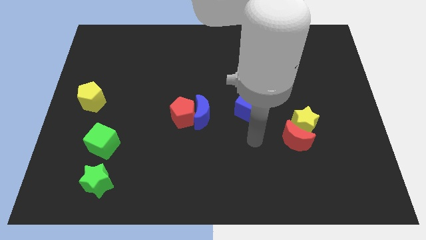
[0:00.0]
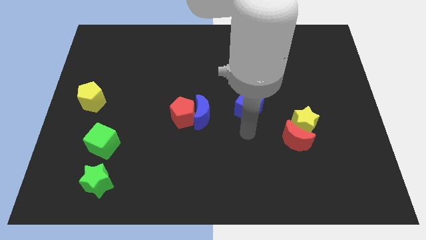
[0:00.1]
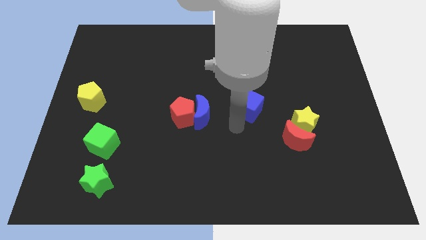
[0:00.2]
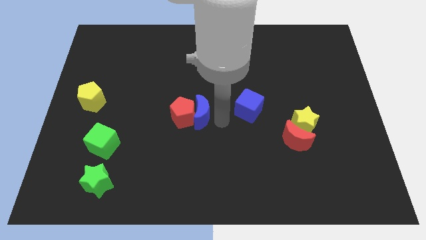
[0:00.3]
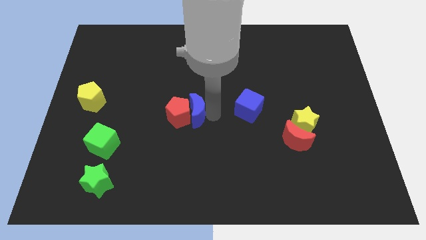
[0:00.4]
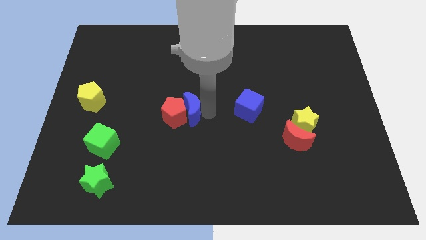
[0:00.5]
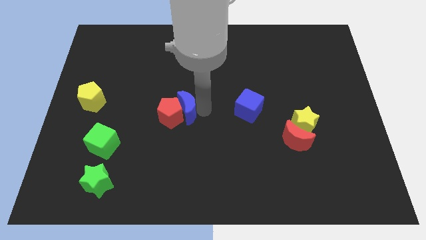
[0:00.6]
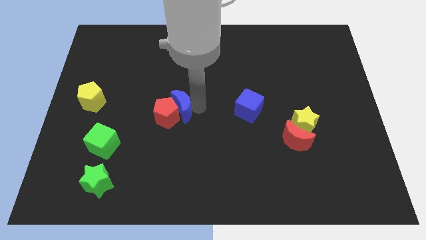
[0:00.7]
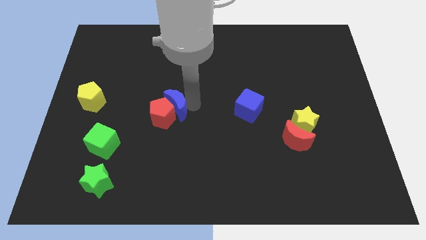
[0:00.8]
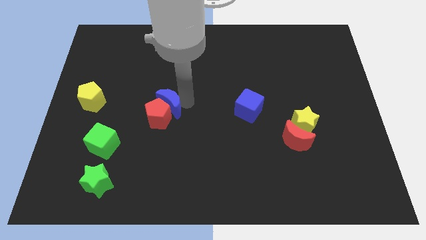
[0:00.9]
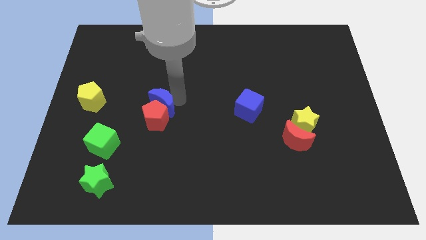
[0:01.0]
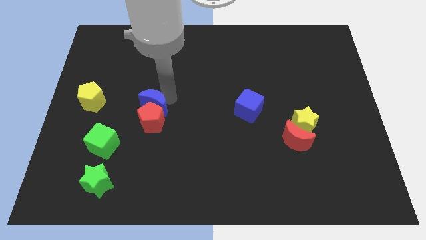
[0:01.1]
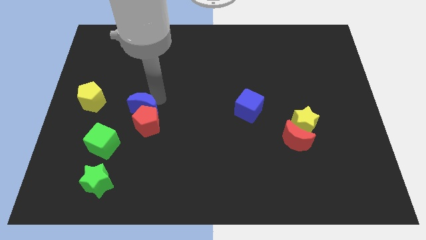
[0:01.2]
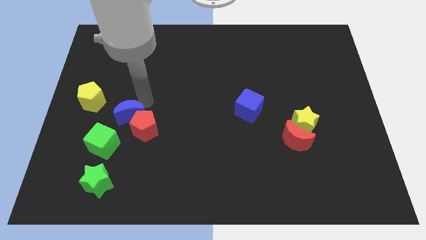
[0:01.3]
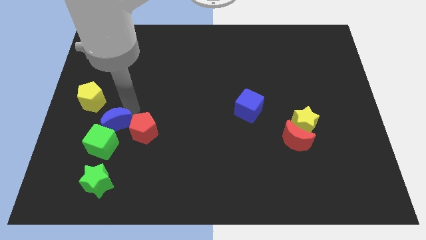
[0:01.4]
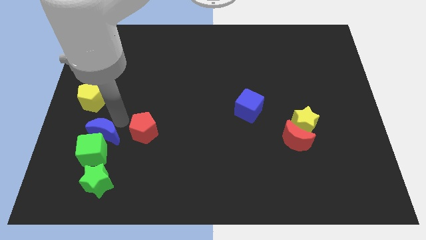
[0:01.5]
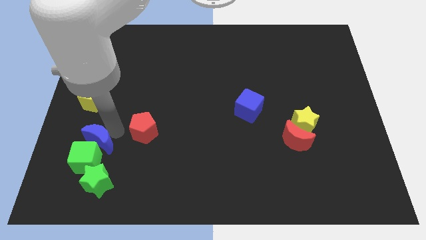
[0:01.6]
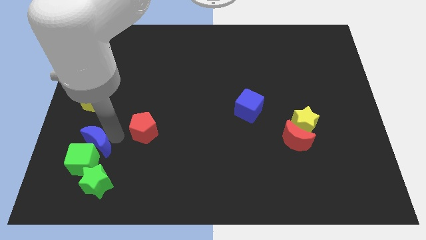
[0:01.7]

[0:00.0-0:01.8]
move the red pentagon away from the blue moon

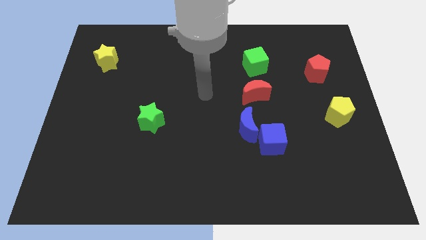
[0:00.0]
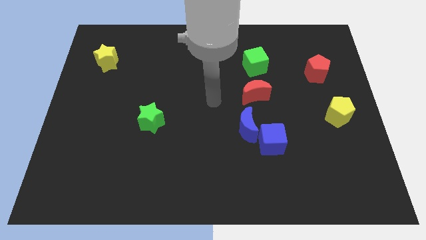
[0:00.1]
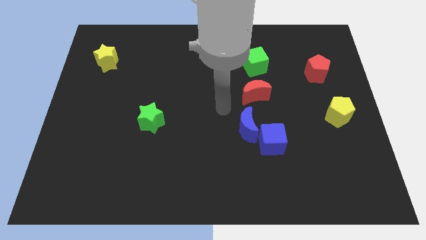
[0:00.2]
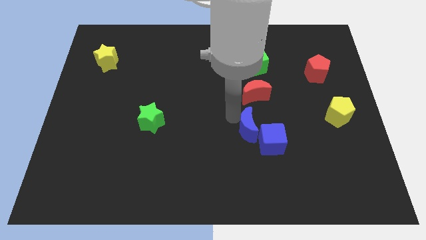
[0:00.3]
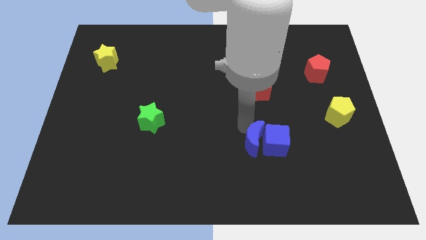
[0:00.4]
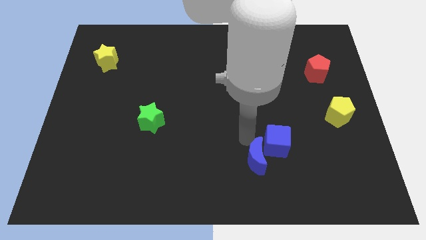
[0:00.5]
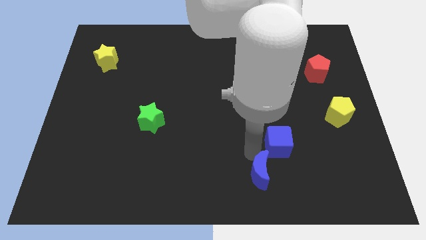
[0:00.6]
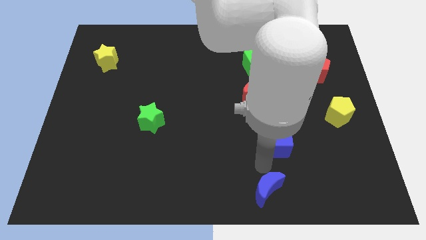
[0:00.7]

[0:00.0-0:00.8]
move the blue cube away from the blue moon

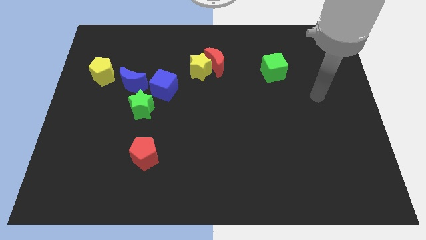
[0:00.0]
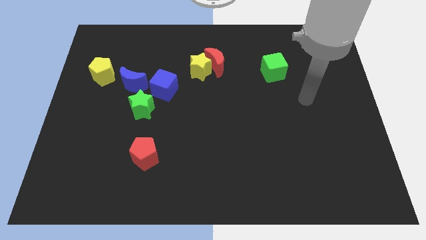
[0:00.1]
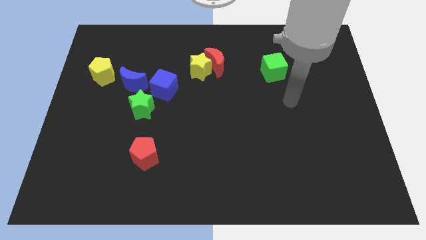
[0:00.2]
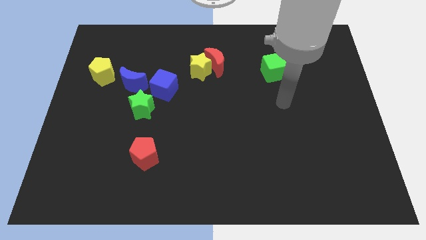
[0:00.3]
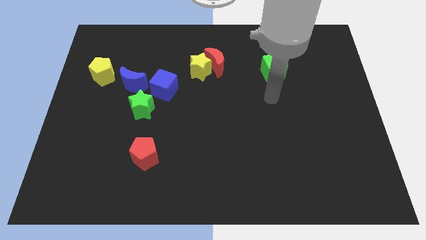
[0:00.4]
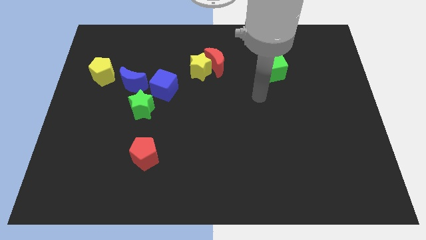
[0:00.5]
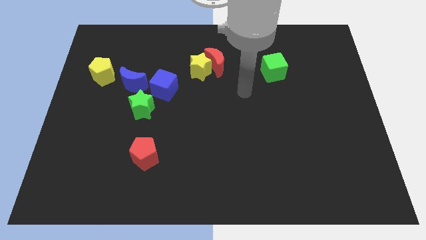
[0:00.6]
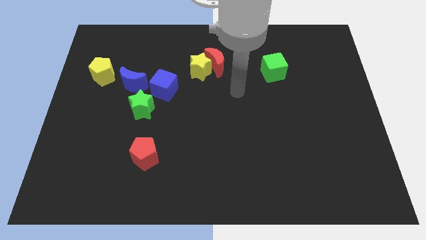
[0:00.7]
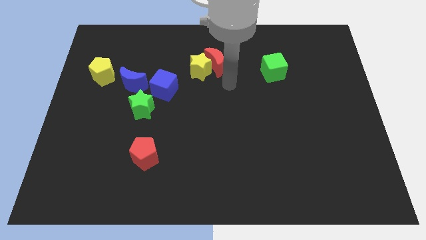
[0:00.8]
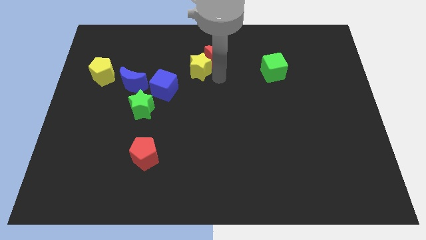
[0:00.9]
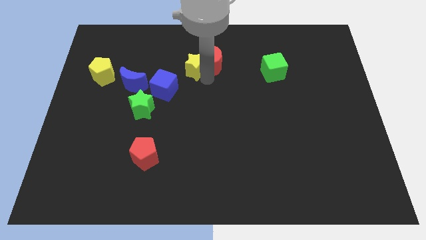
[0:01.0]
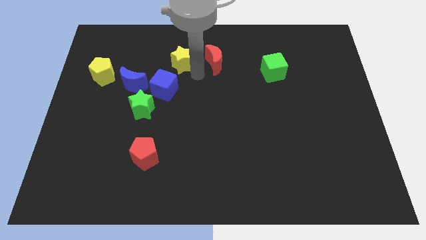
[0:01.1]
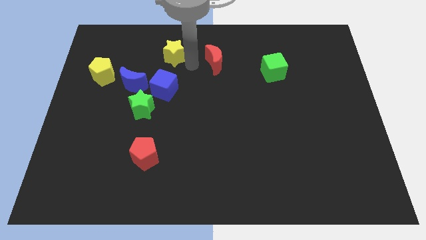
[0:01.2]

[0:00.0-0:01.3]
pull the red moon apart from the yellow star

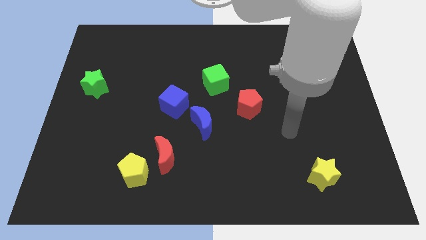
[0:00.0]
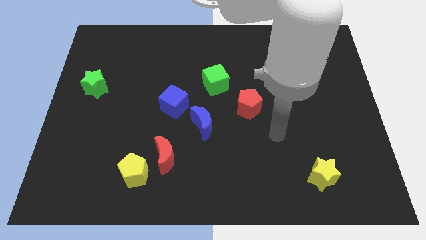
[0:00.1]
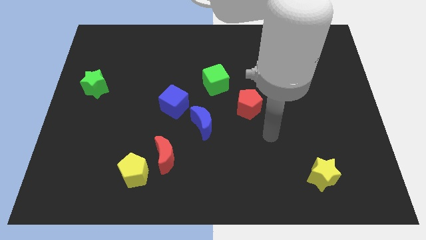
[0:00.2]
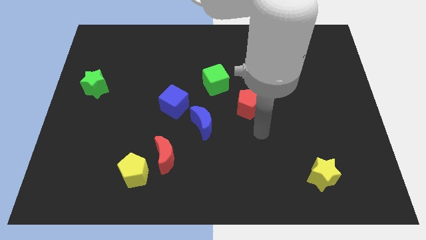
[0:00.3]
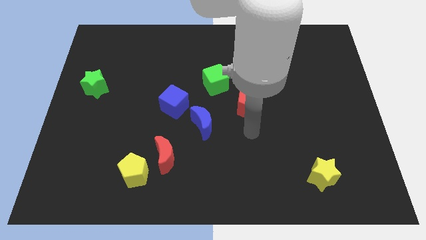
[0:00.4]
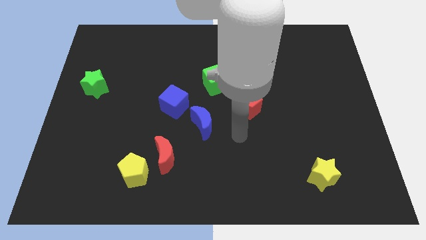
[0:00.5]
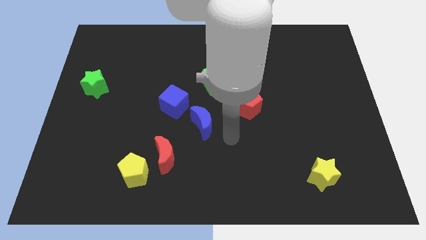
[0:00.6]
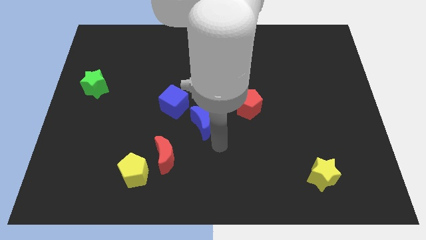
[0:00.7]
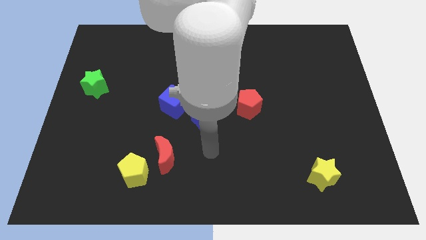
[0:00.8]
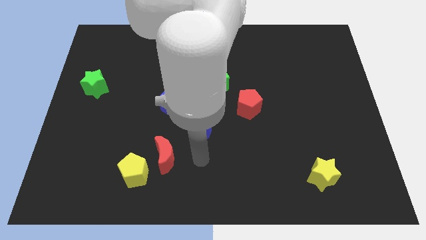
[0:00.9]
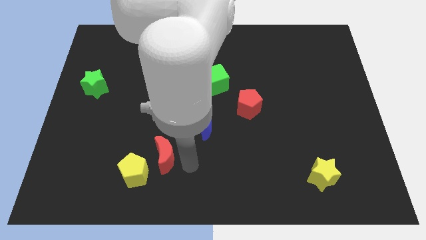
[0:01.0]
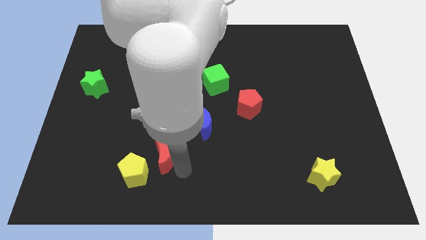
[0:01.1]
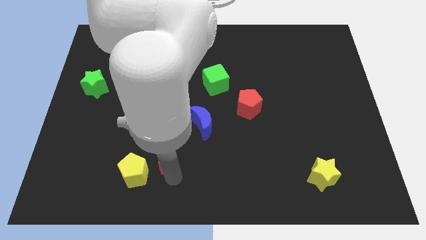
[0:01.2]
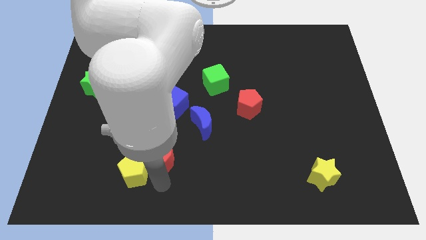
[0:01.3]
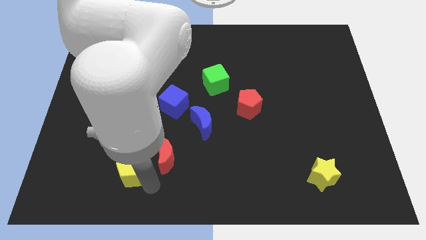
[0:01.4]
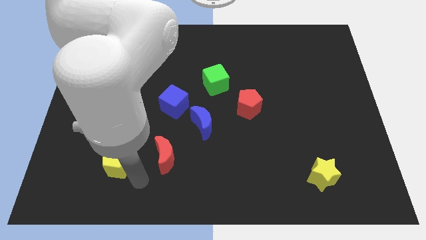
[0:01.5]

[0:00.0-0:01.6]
separate the red moon from the yellow pentagon

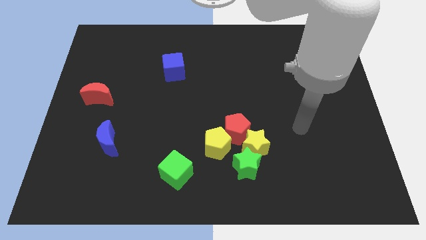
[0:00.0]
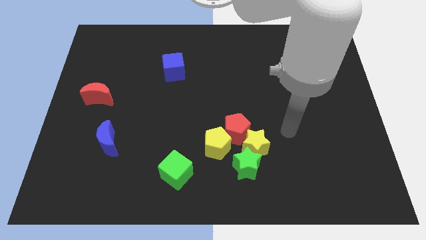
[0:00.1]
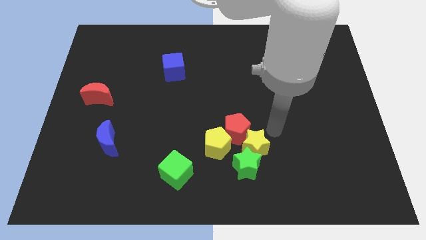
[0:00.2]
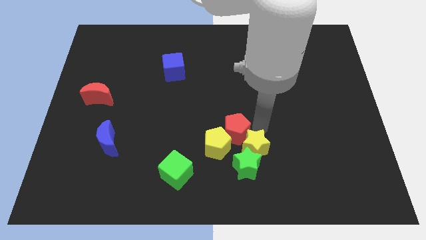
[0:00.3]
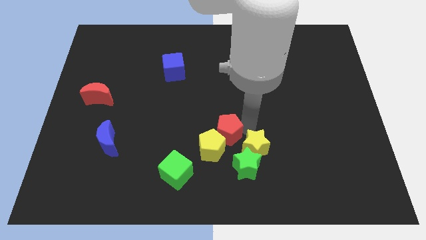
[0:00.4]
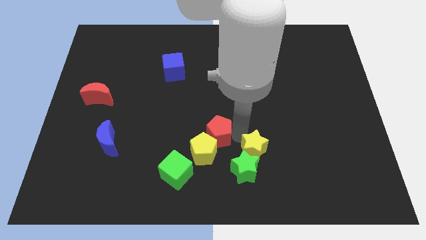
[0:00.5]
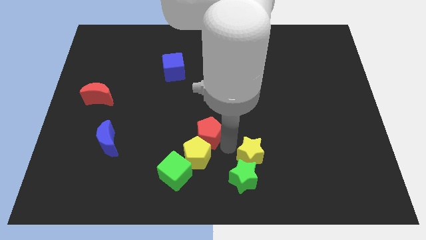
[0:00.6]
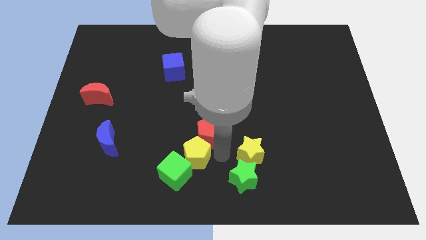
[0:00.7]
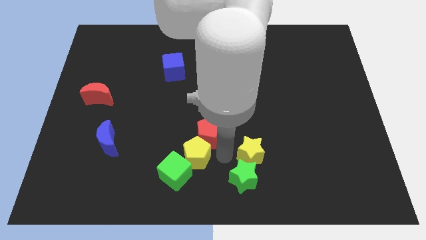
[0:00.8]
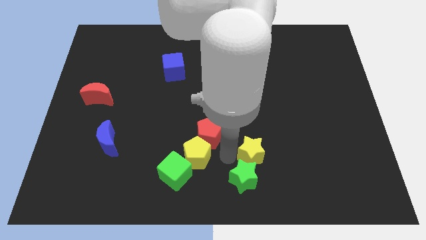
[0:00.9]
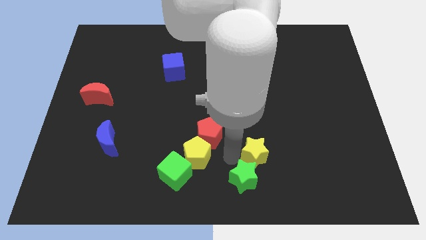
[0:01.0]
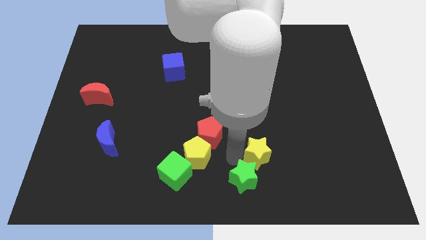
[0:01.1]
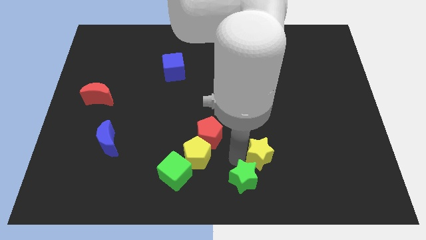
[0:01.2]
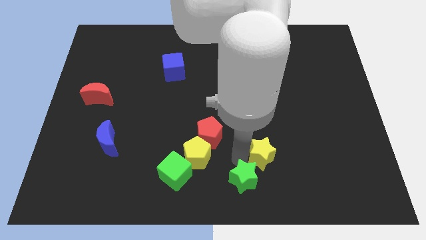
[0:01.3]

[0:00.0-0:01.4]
separate the yellow star from the green star, red pentagon, and yellow pentagon

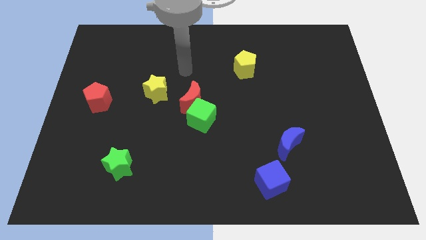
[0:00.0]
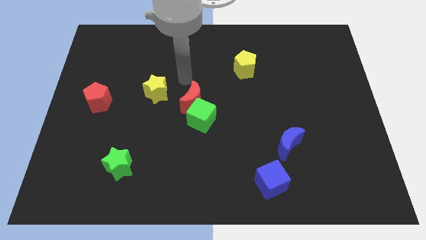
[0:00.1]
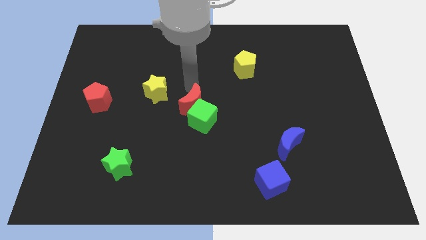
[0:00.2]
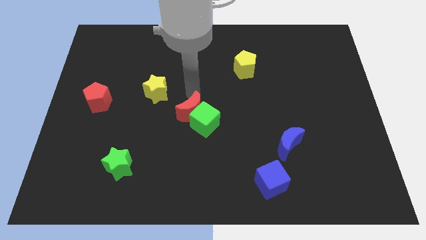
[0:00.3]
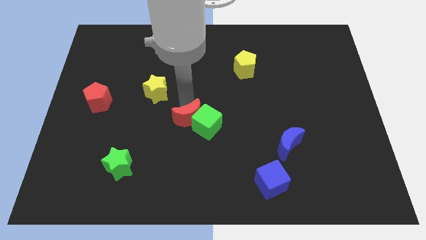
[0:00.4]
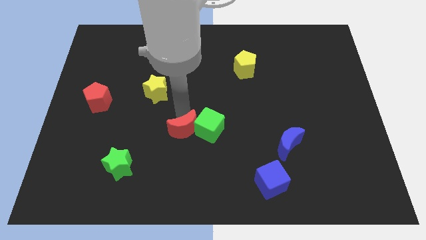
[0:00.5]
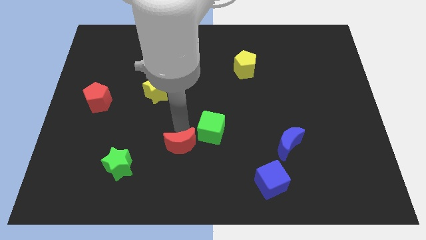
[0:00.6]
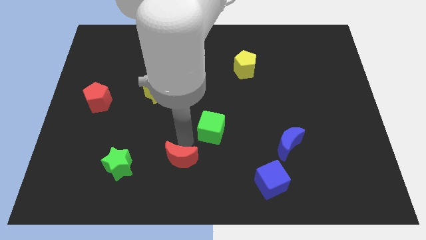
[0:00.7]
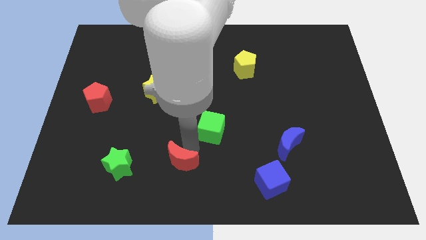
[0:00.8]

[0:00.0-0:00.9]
pull the green cube apart from the red moon

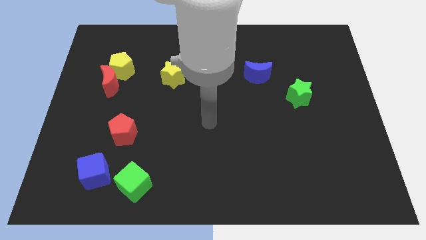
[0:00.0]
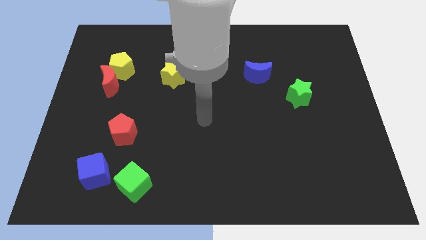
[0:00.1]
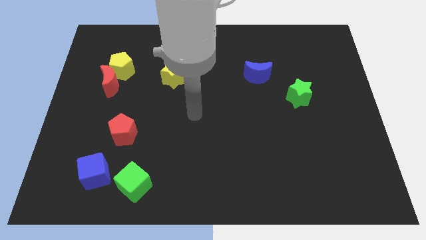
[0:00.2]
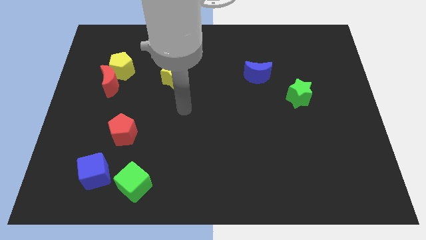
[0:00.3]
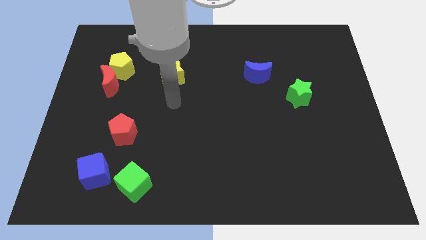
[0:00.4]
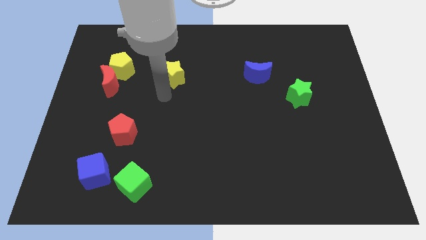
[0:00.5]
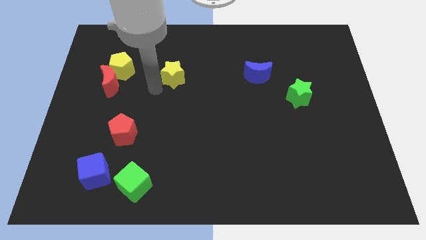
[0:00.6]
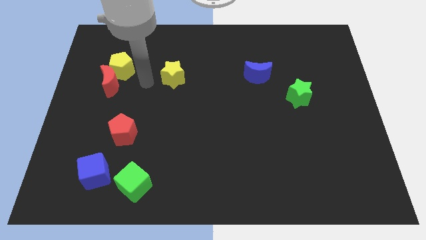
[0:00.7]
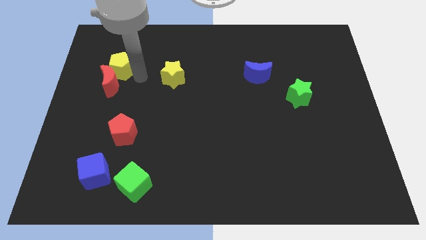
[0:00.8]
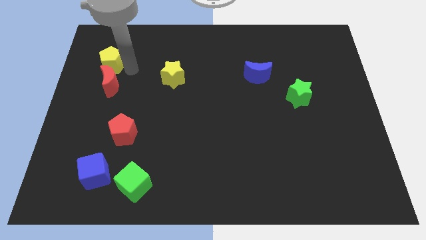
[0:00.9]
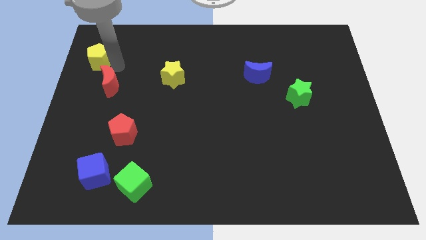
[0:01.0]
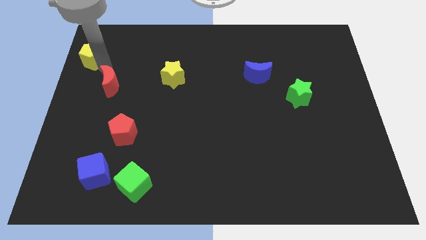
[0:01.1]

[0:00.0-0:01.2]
move the red moon away from the yellow pentagon

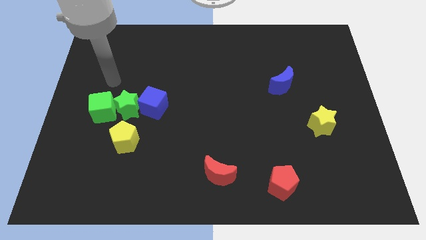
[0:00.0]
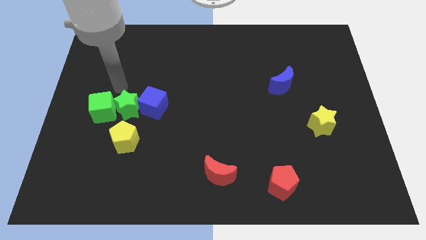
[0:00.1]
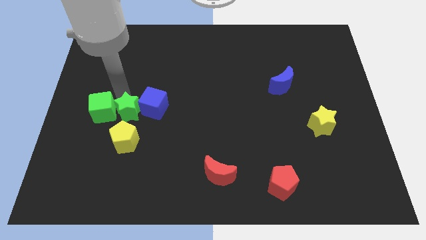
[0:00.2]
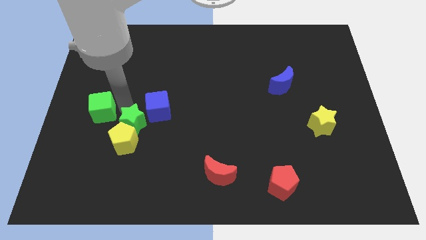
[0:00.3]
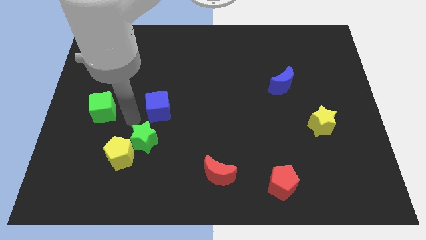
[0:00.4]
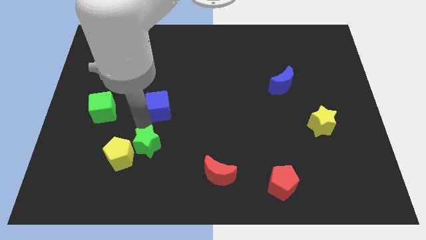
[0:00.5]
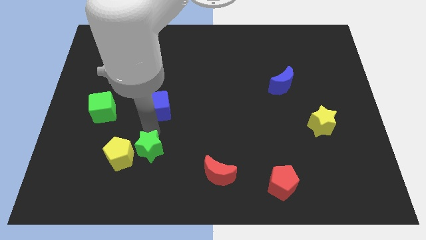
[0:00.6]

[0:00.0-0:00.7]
pull the blue cube apart from the green star
